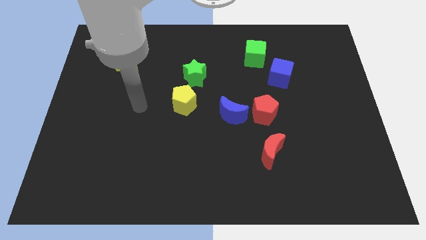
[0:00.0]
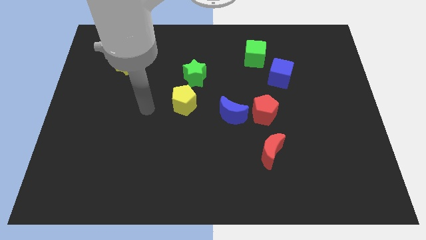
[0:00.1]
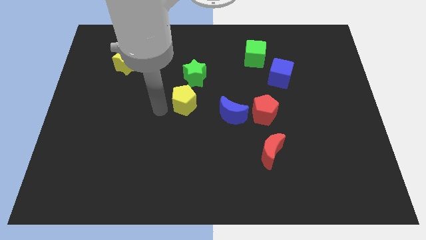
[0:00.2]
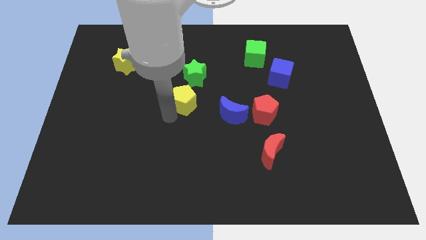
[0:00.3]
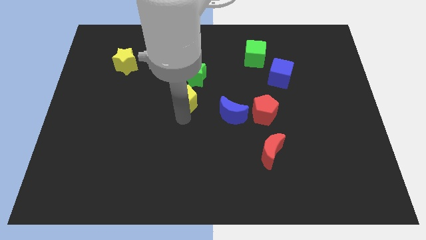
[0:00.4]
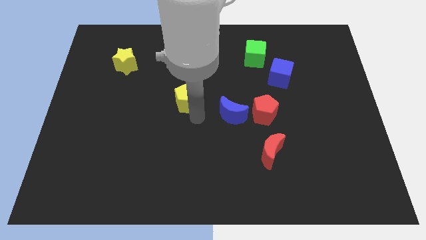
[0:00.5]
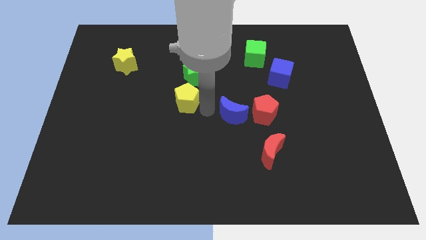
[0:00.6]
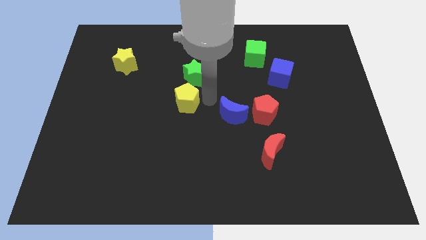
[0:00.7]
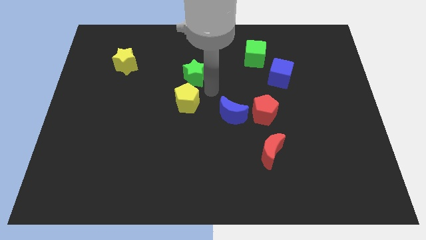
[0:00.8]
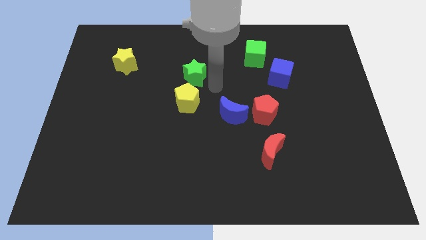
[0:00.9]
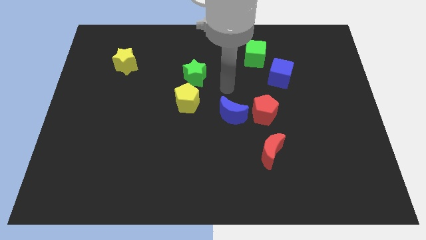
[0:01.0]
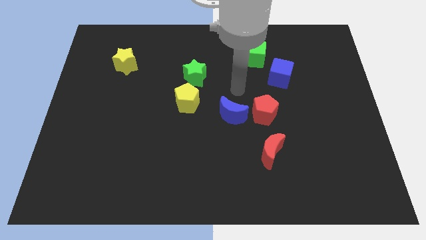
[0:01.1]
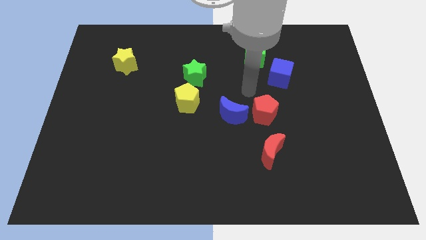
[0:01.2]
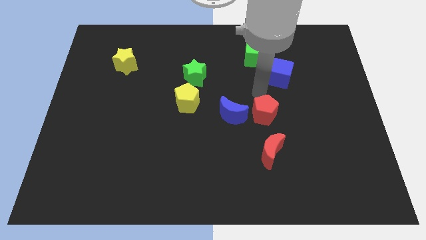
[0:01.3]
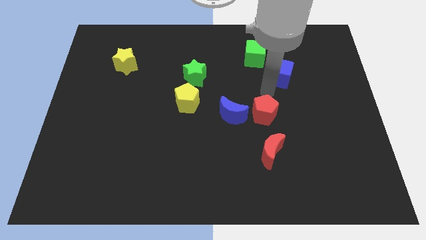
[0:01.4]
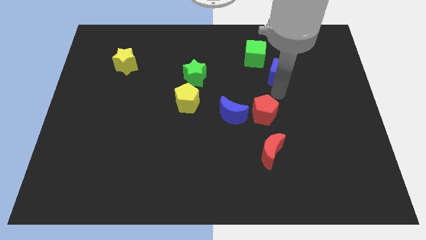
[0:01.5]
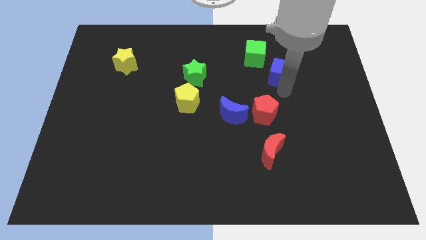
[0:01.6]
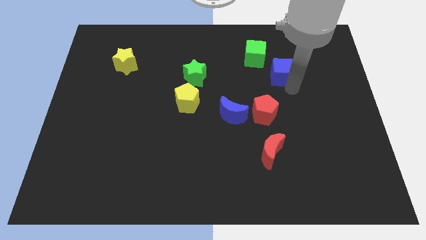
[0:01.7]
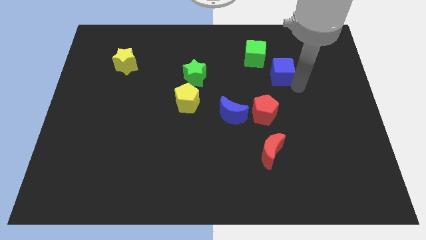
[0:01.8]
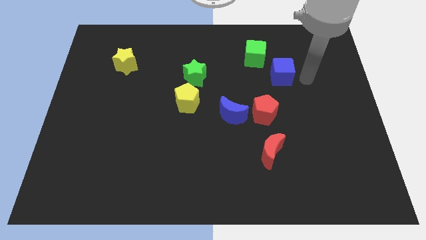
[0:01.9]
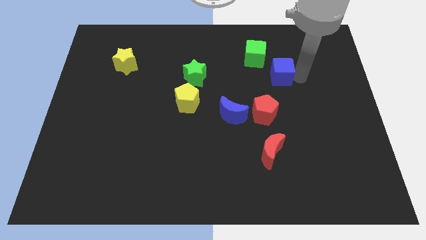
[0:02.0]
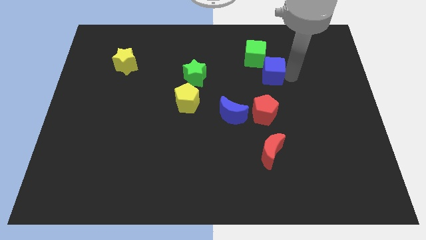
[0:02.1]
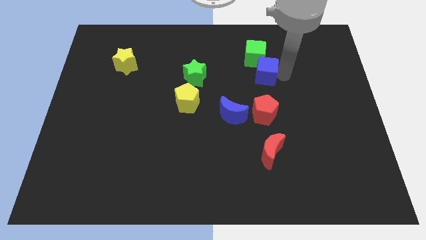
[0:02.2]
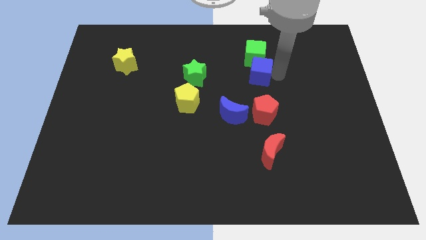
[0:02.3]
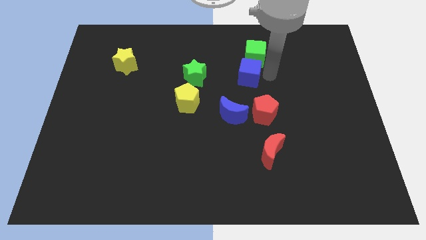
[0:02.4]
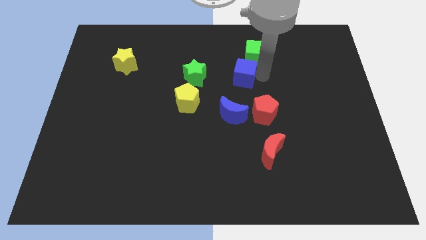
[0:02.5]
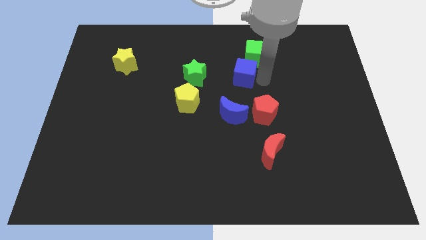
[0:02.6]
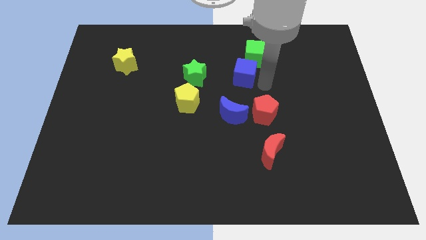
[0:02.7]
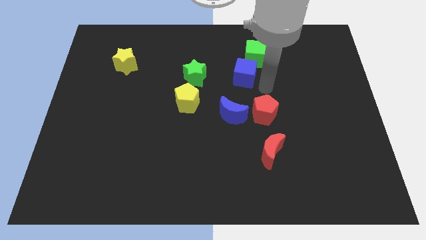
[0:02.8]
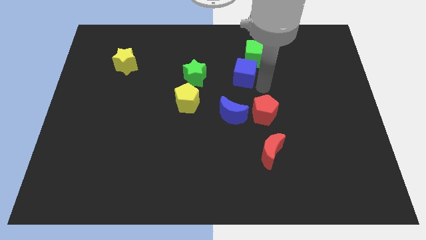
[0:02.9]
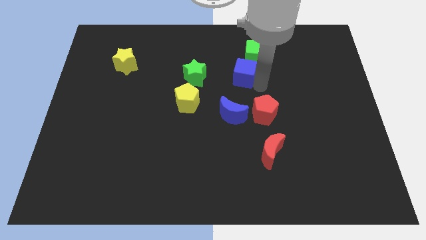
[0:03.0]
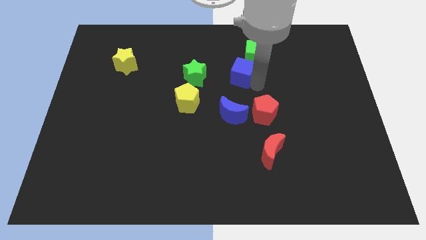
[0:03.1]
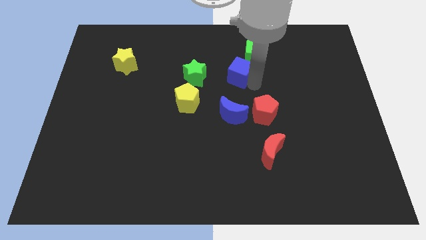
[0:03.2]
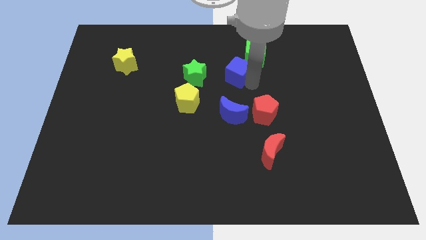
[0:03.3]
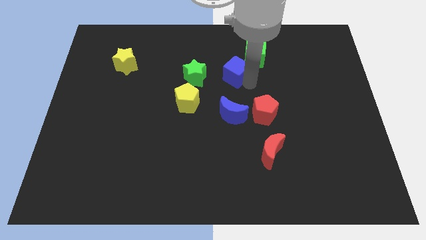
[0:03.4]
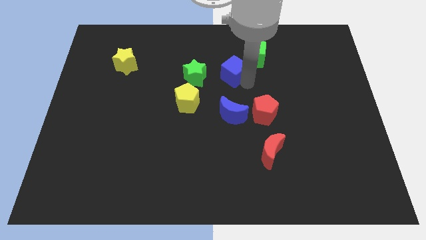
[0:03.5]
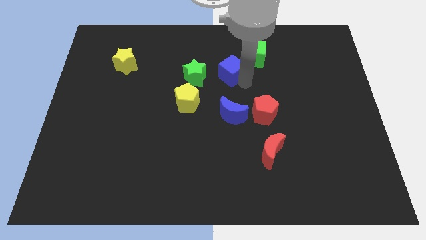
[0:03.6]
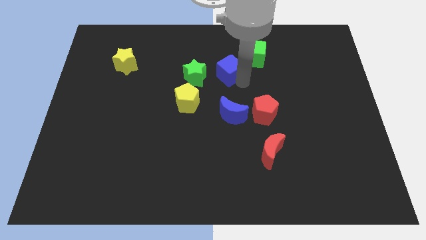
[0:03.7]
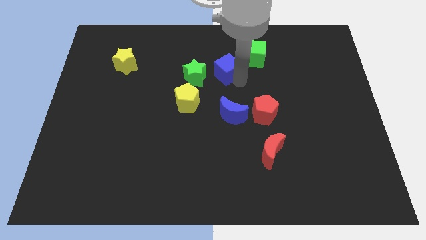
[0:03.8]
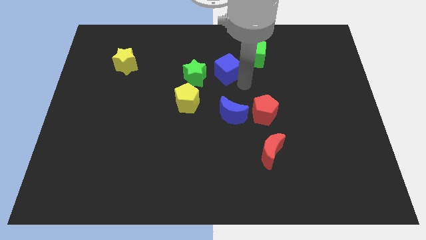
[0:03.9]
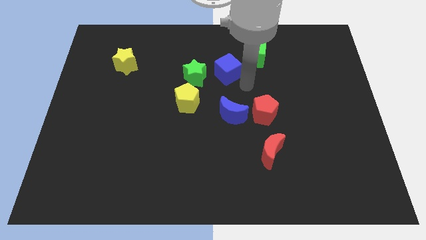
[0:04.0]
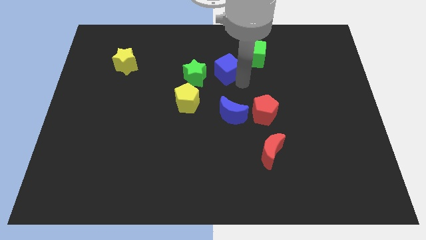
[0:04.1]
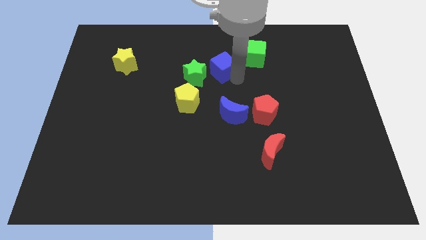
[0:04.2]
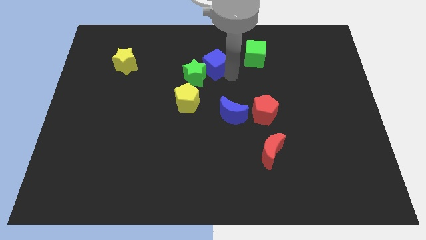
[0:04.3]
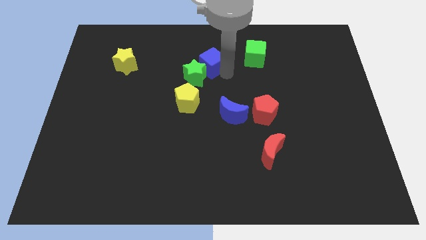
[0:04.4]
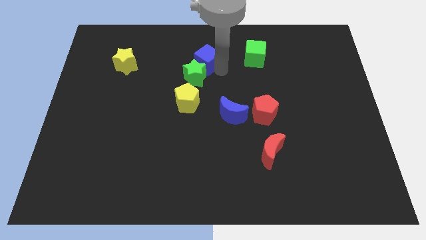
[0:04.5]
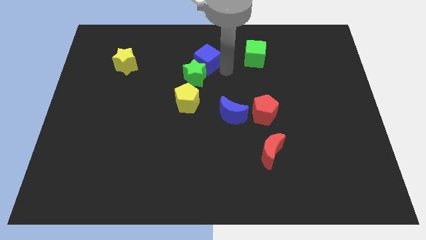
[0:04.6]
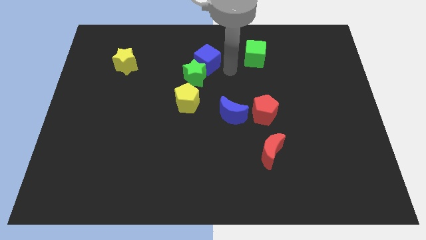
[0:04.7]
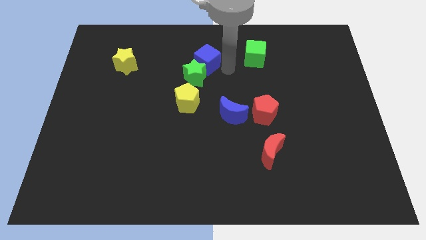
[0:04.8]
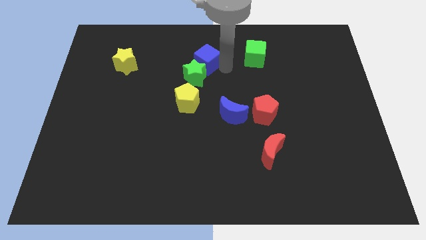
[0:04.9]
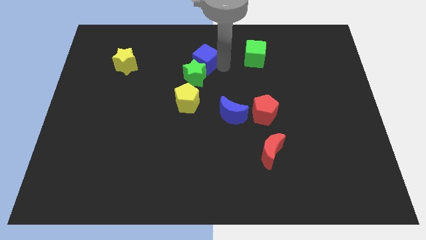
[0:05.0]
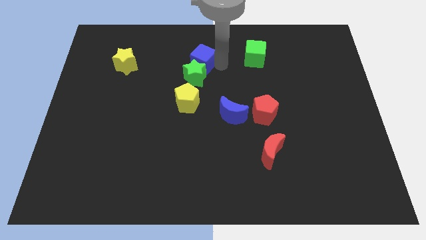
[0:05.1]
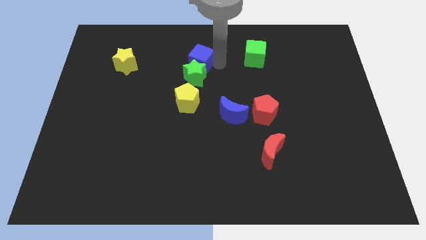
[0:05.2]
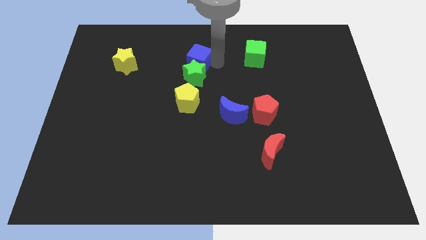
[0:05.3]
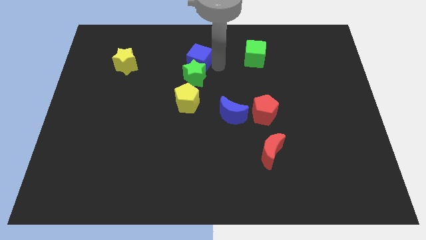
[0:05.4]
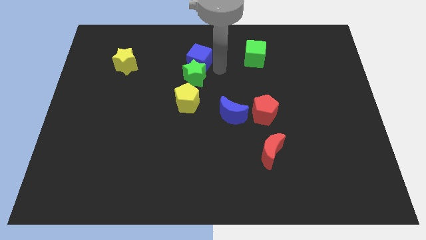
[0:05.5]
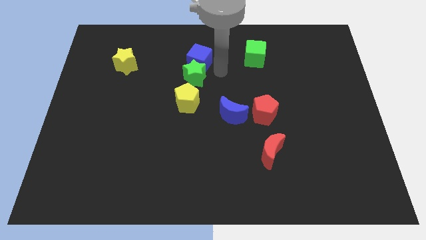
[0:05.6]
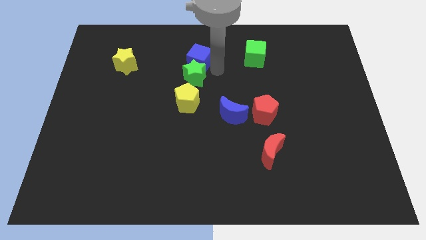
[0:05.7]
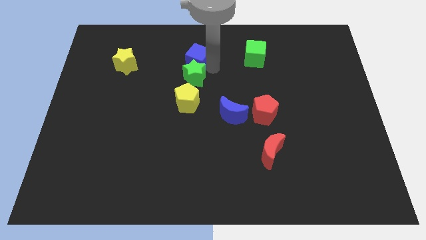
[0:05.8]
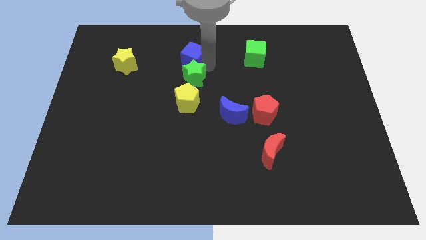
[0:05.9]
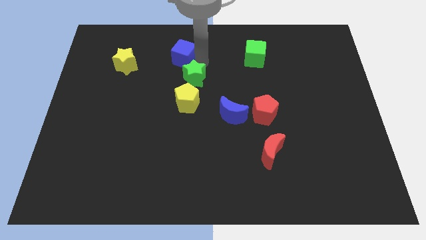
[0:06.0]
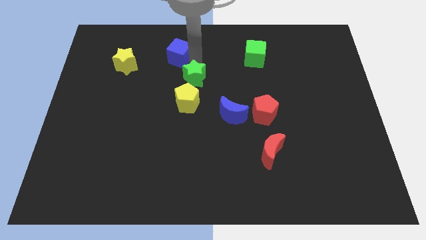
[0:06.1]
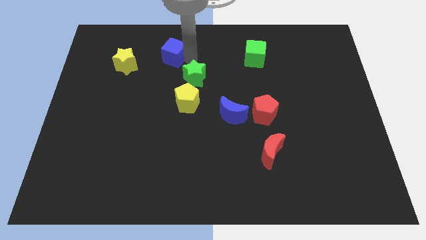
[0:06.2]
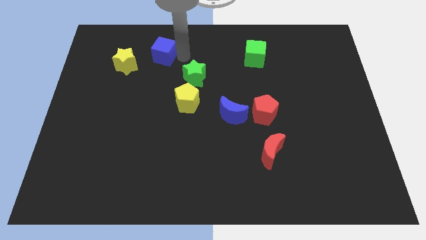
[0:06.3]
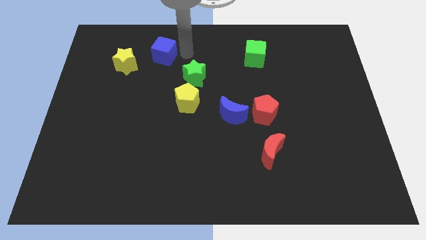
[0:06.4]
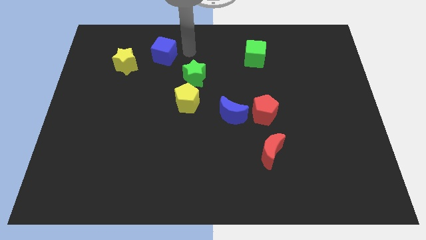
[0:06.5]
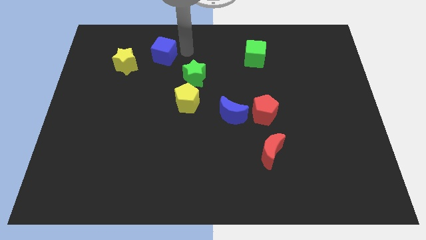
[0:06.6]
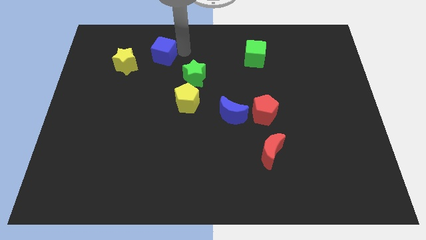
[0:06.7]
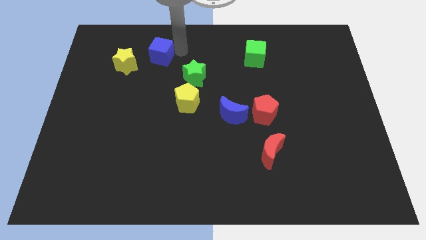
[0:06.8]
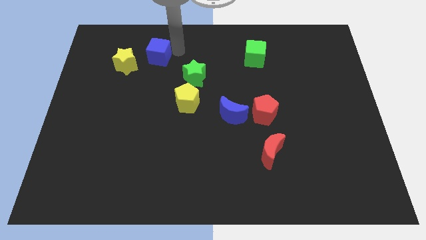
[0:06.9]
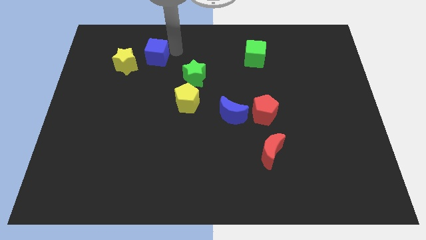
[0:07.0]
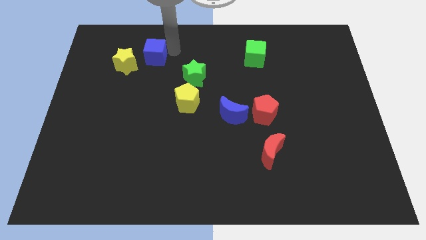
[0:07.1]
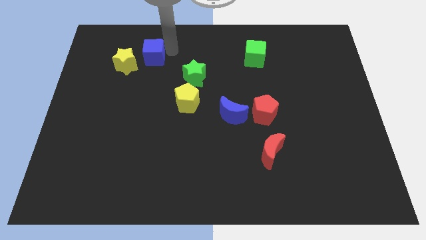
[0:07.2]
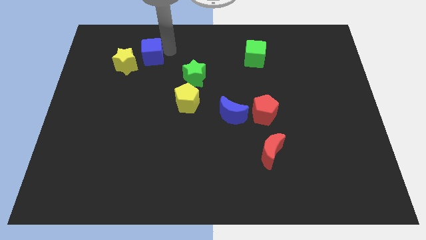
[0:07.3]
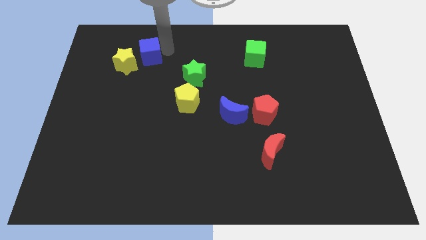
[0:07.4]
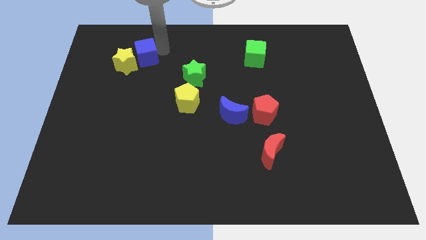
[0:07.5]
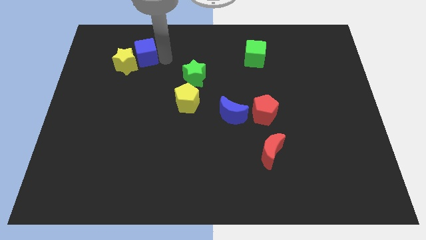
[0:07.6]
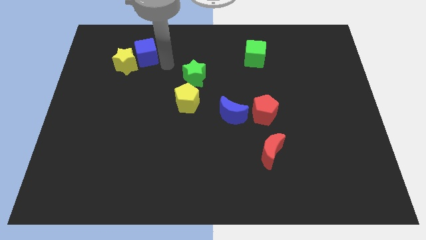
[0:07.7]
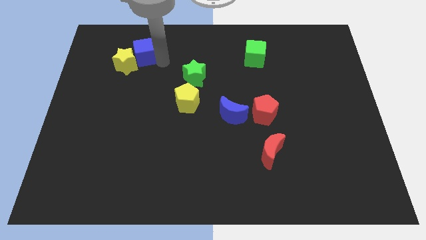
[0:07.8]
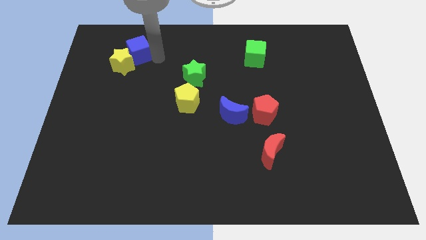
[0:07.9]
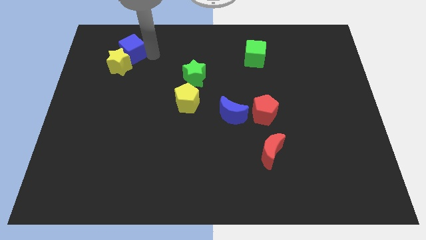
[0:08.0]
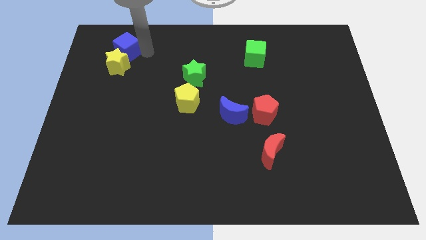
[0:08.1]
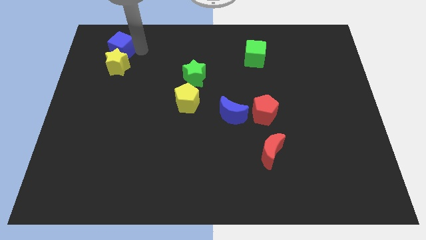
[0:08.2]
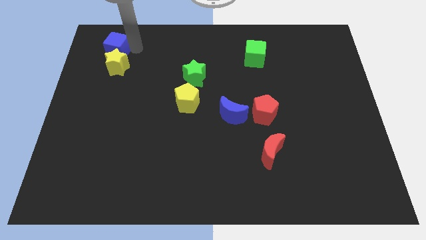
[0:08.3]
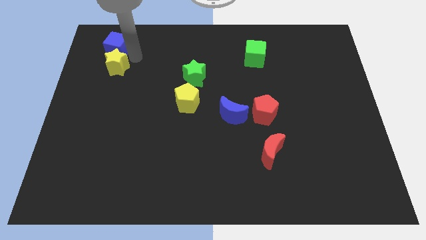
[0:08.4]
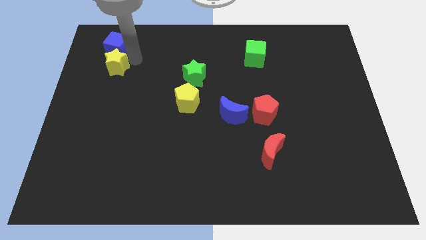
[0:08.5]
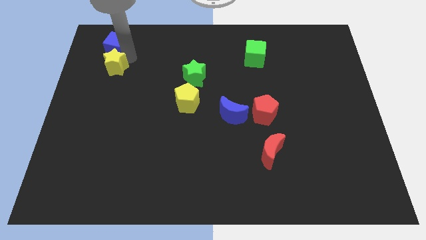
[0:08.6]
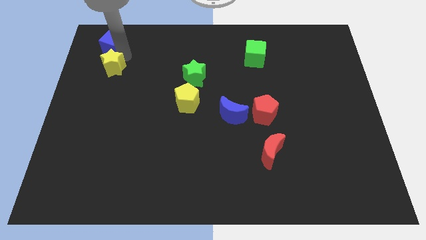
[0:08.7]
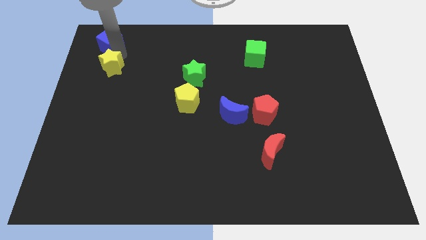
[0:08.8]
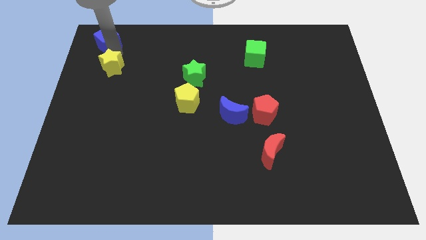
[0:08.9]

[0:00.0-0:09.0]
slide the blue cube to the top left
